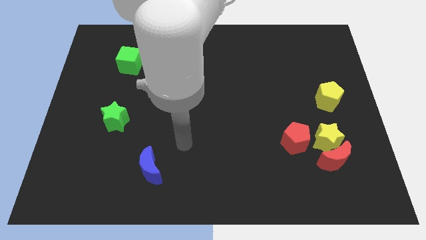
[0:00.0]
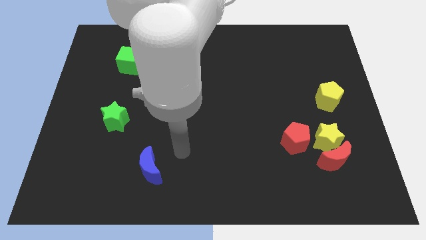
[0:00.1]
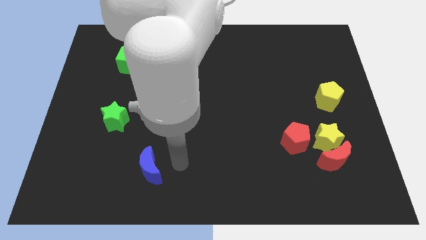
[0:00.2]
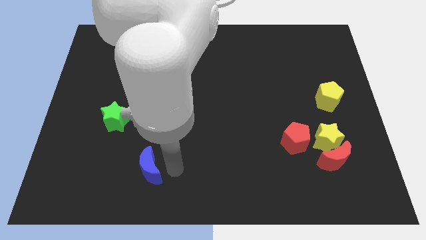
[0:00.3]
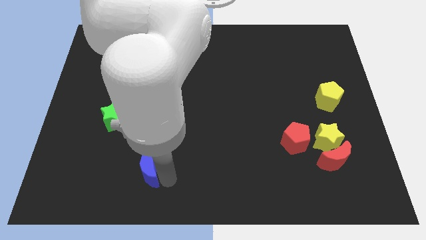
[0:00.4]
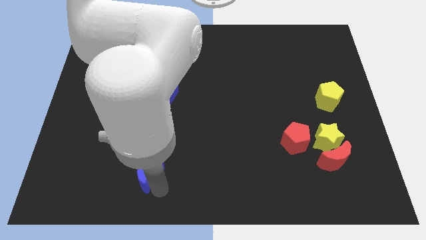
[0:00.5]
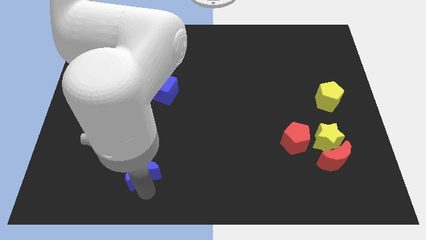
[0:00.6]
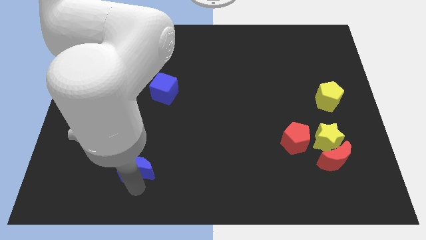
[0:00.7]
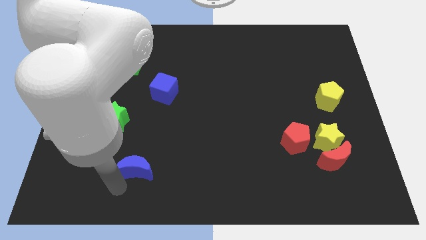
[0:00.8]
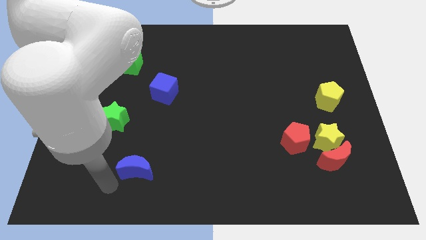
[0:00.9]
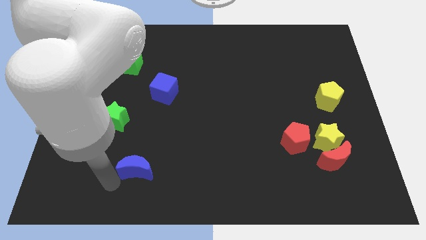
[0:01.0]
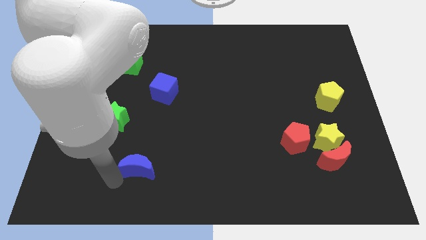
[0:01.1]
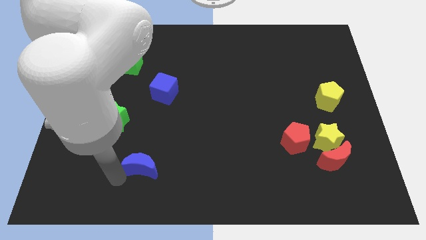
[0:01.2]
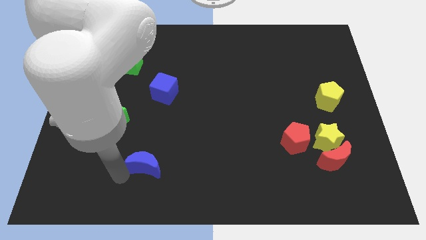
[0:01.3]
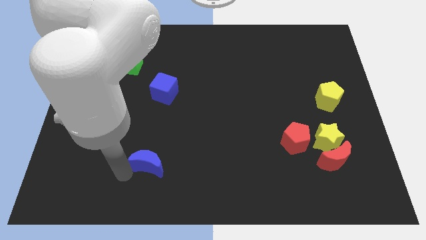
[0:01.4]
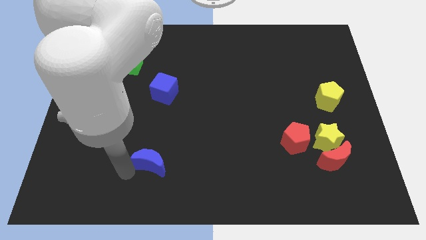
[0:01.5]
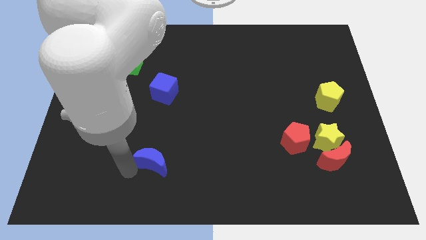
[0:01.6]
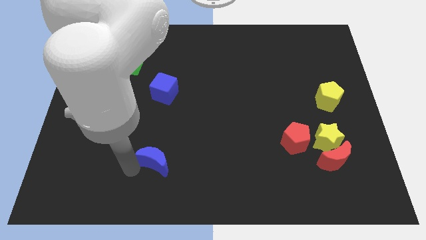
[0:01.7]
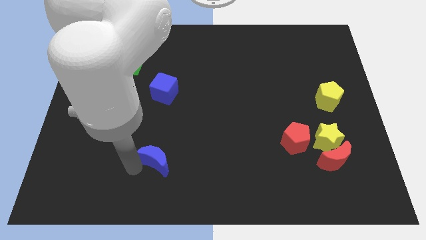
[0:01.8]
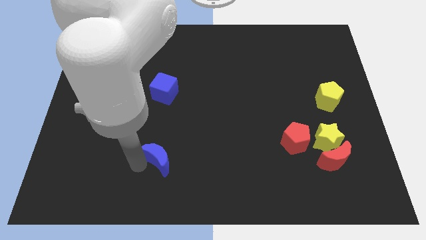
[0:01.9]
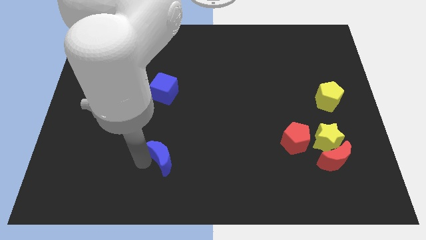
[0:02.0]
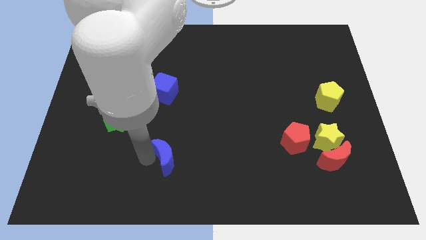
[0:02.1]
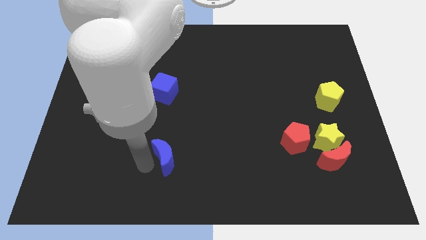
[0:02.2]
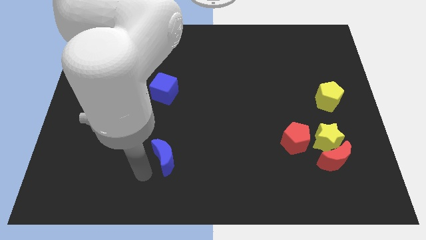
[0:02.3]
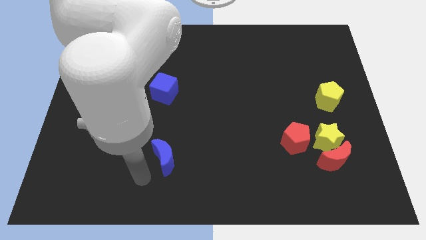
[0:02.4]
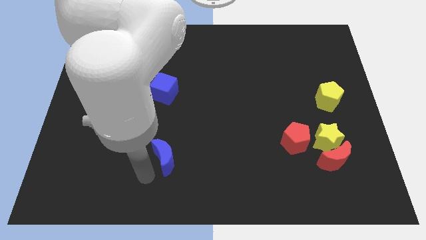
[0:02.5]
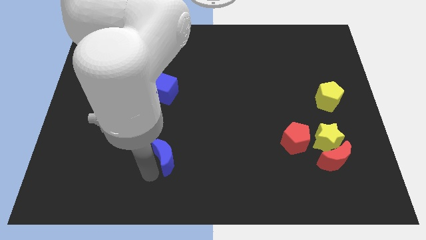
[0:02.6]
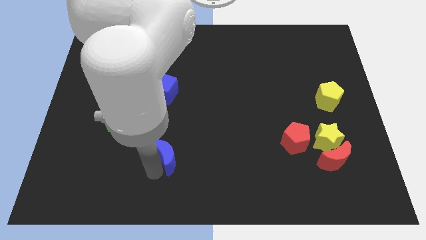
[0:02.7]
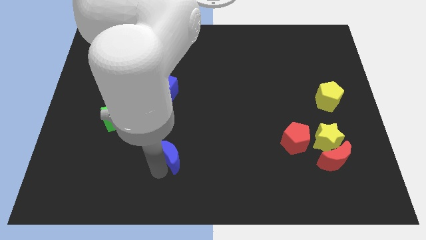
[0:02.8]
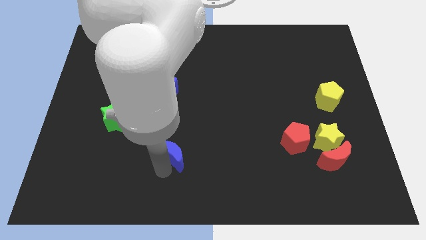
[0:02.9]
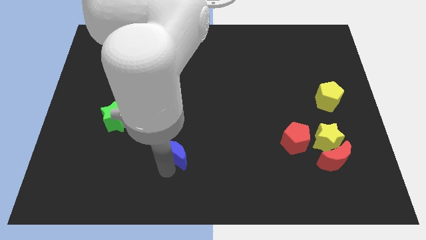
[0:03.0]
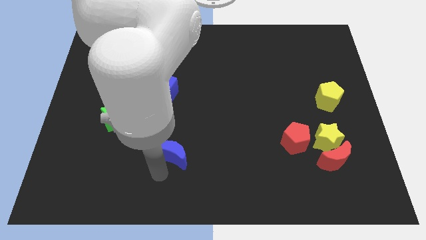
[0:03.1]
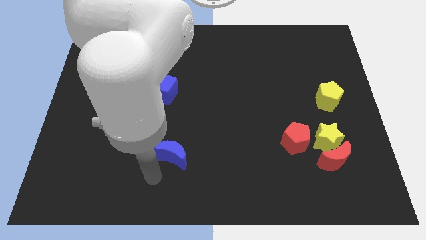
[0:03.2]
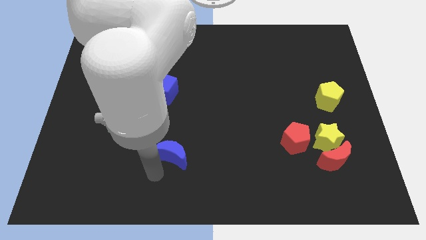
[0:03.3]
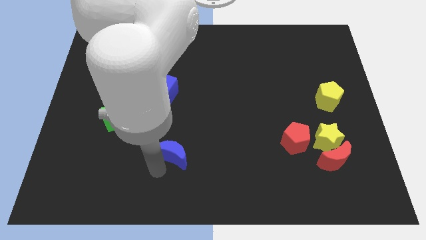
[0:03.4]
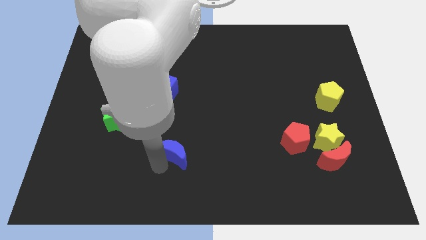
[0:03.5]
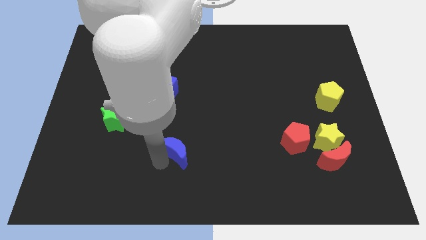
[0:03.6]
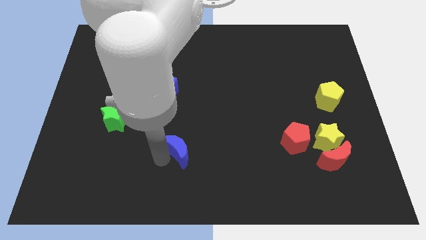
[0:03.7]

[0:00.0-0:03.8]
slightly slide the blue moon diagonally up and right

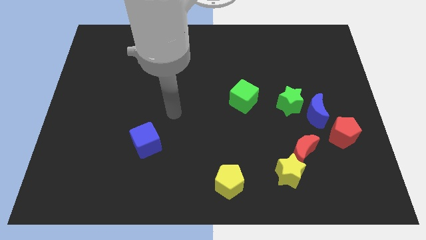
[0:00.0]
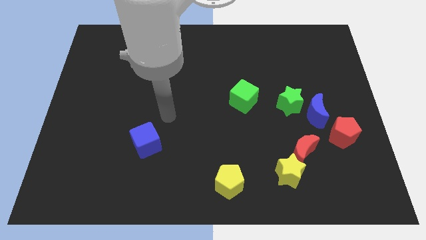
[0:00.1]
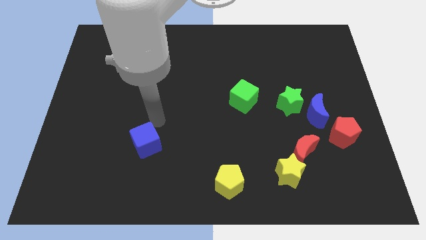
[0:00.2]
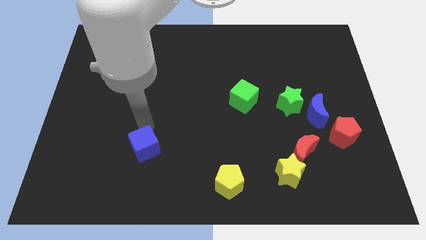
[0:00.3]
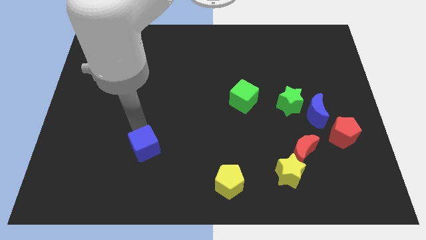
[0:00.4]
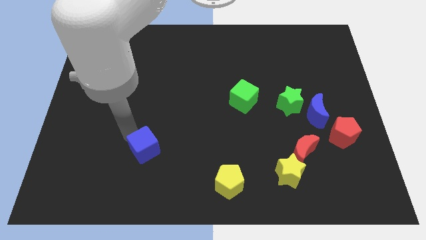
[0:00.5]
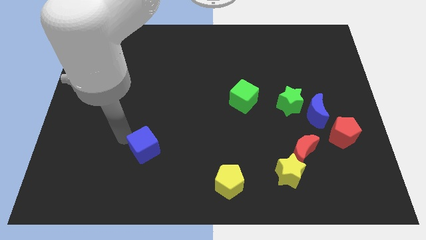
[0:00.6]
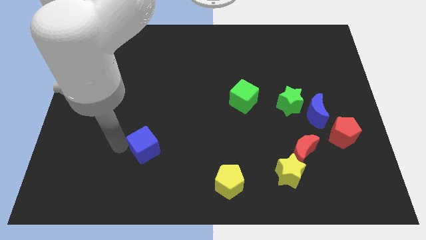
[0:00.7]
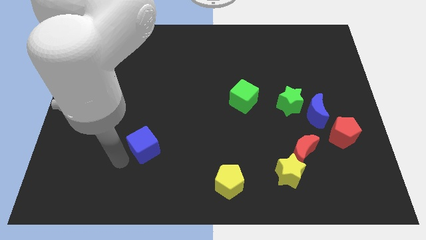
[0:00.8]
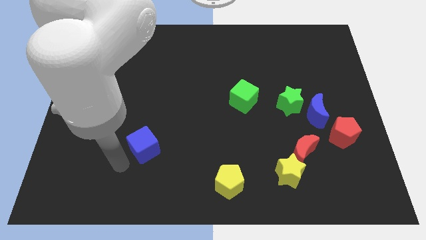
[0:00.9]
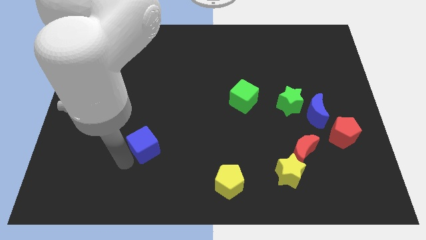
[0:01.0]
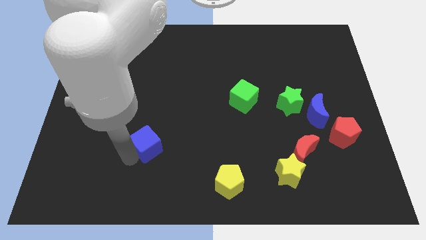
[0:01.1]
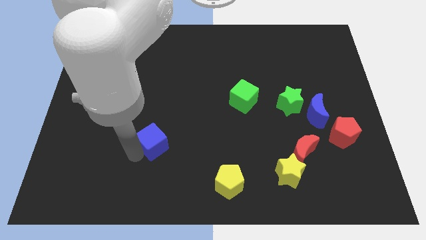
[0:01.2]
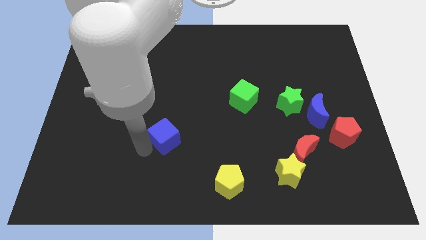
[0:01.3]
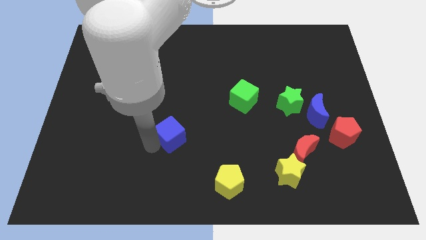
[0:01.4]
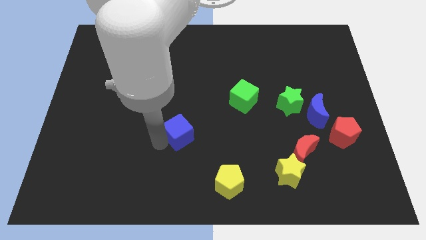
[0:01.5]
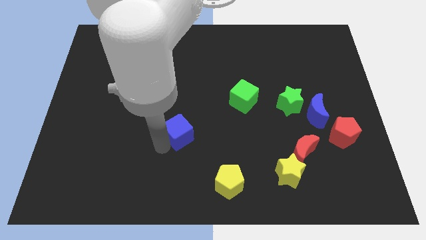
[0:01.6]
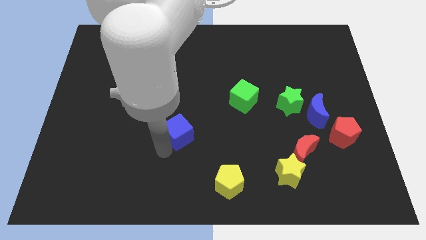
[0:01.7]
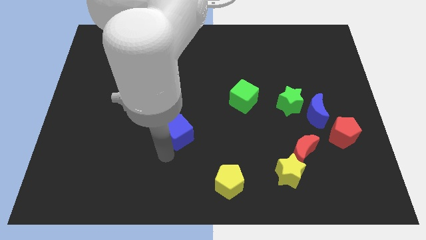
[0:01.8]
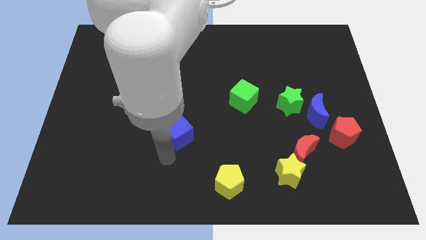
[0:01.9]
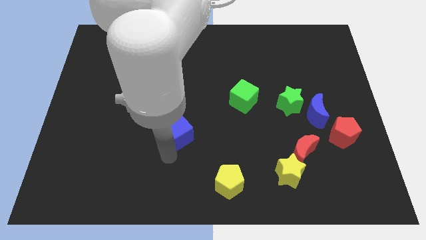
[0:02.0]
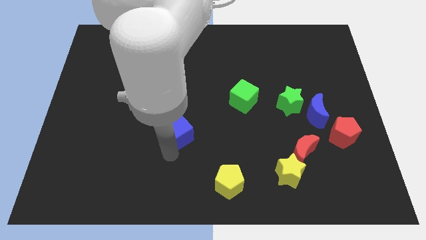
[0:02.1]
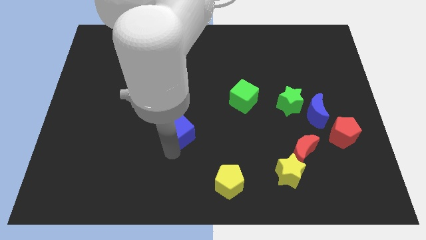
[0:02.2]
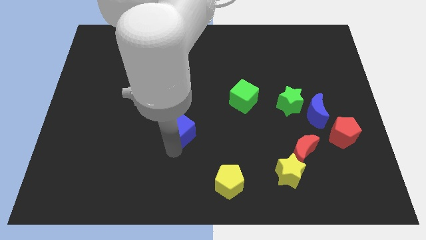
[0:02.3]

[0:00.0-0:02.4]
move the blue cube a bit diagonally up and right

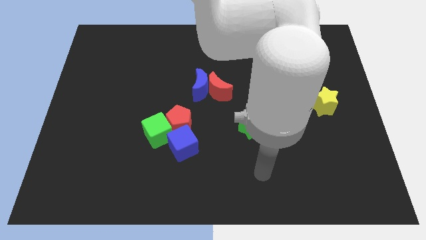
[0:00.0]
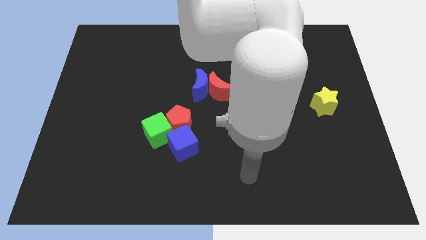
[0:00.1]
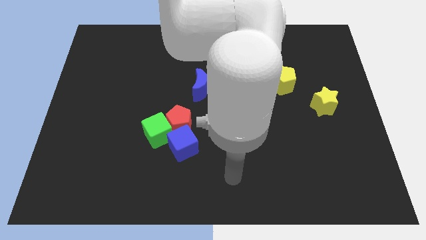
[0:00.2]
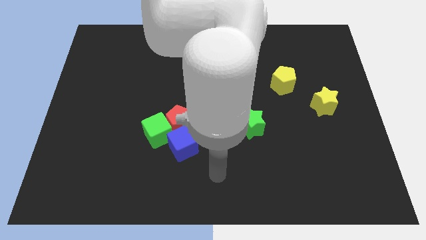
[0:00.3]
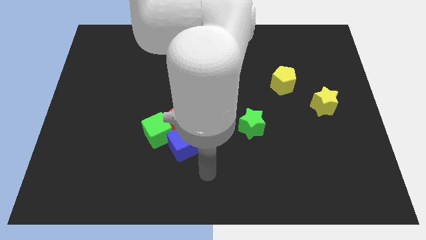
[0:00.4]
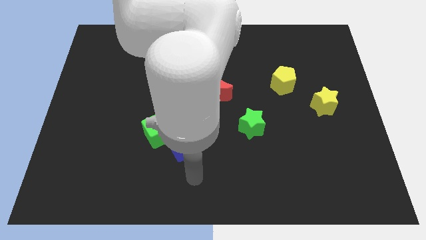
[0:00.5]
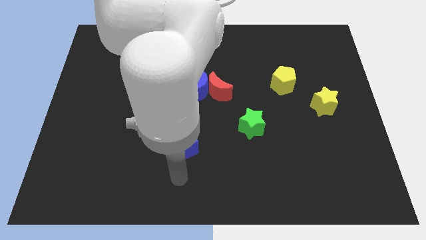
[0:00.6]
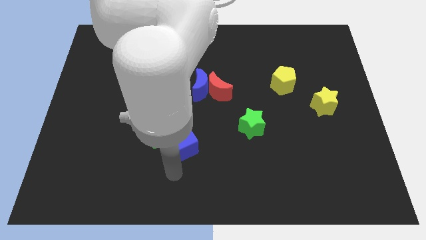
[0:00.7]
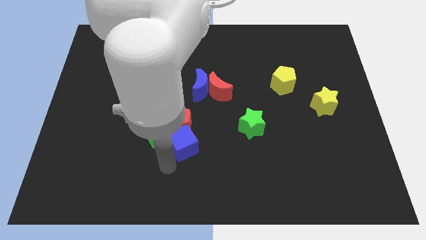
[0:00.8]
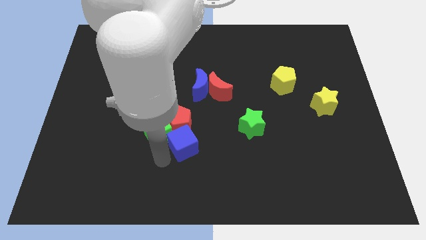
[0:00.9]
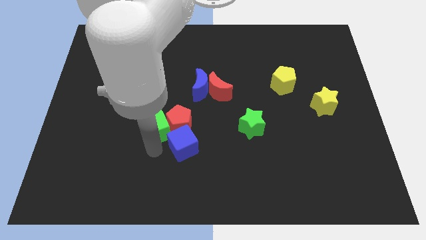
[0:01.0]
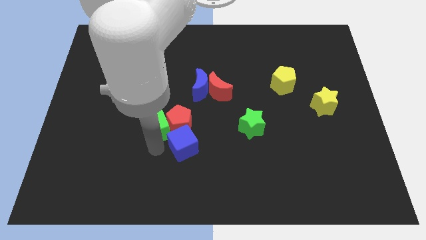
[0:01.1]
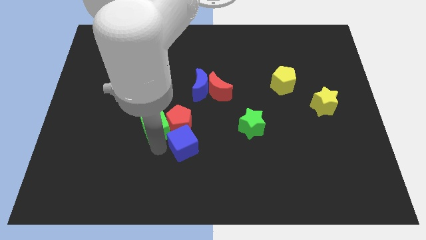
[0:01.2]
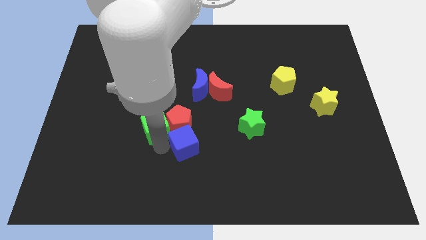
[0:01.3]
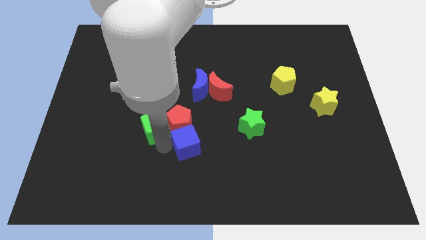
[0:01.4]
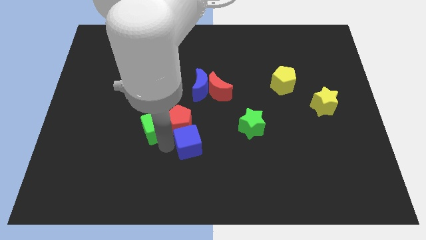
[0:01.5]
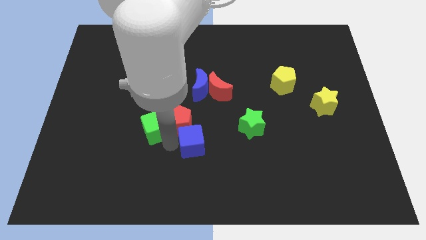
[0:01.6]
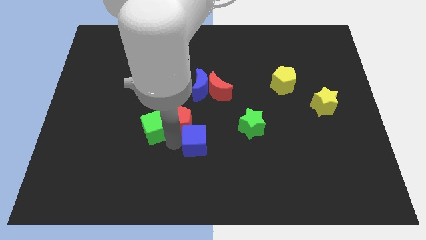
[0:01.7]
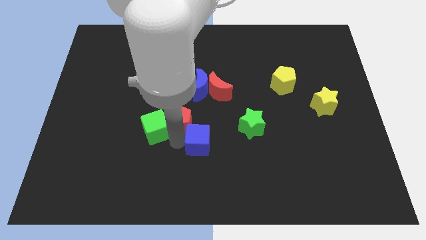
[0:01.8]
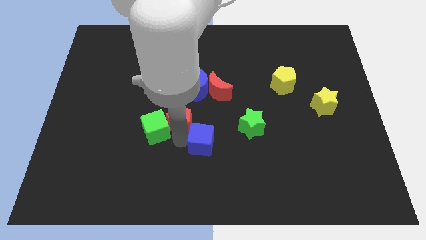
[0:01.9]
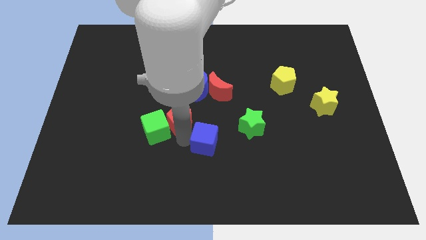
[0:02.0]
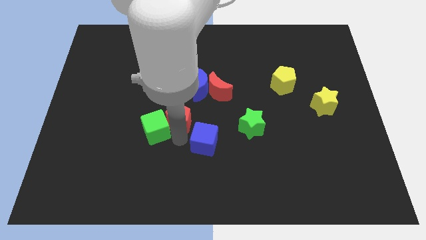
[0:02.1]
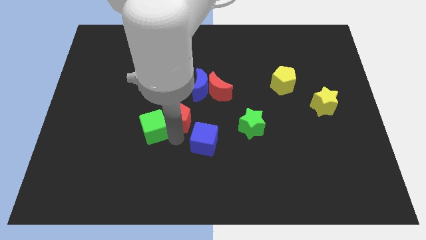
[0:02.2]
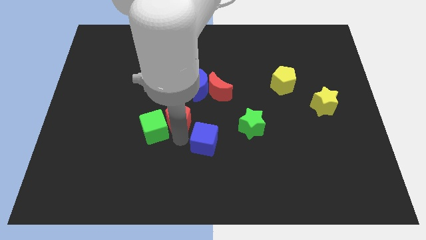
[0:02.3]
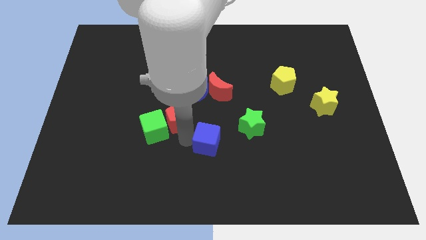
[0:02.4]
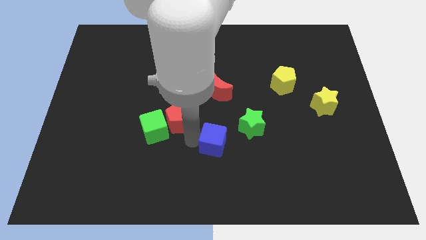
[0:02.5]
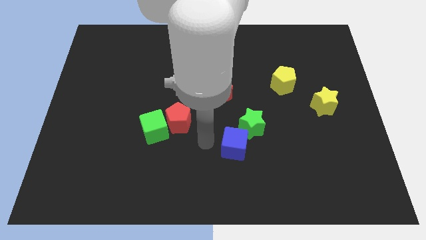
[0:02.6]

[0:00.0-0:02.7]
slightly push the blue cube right
